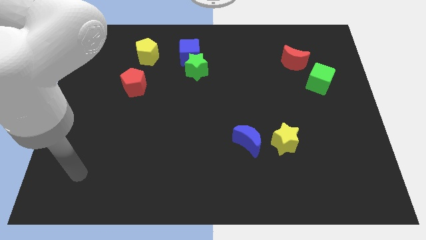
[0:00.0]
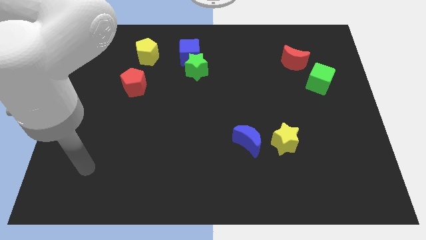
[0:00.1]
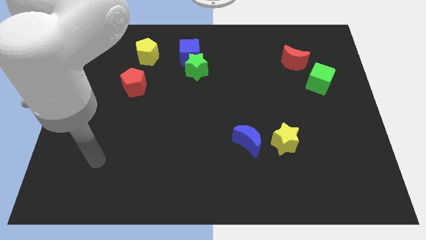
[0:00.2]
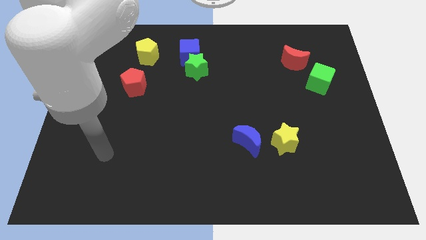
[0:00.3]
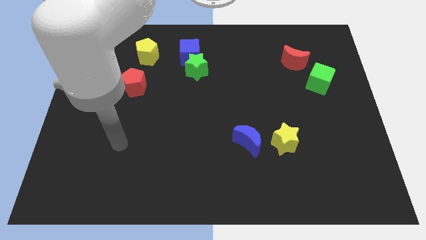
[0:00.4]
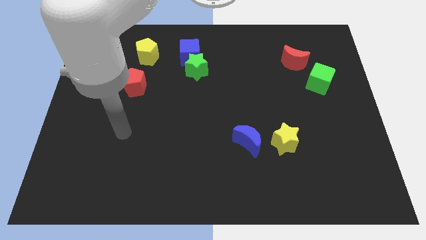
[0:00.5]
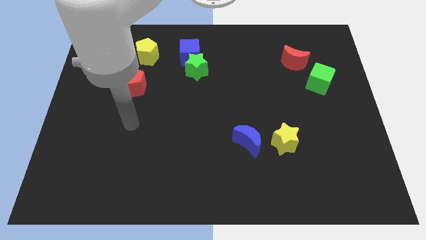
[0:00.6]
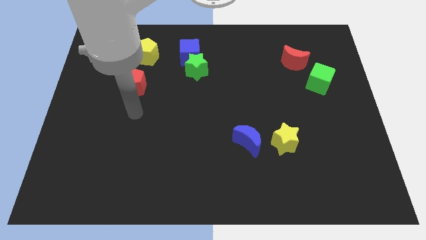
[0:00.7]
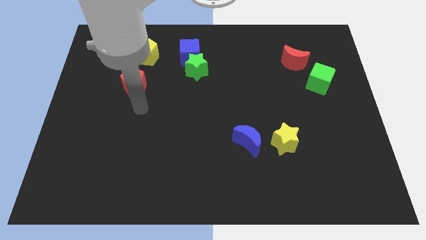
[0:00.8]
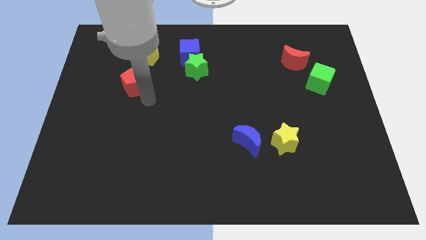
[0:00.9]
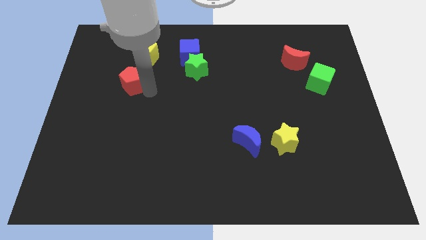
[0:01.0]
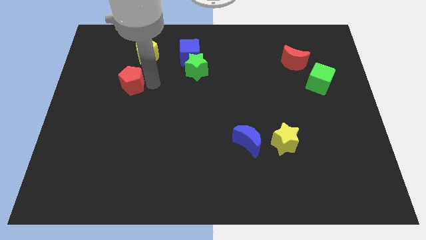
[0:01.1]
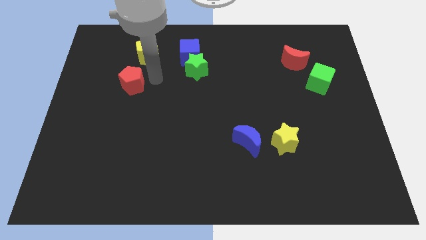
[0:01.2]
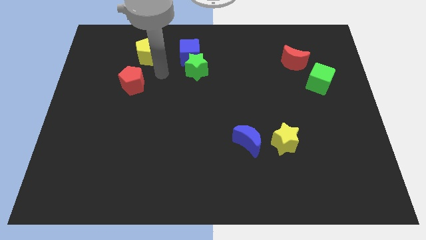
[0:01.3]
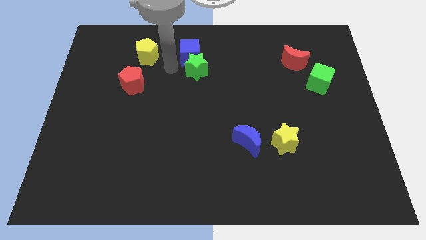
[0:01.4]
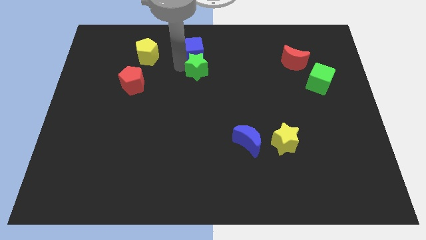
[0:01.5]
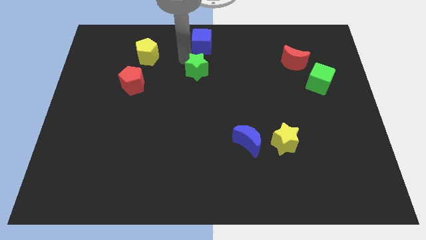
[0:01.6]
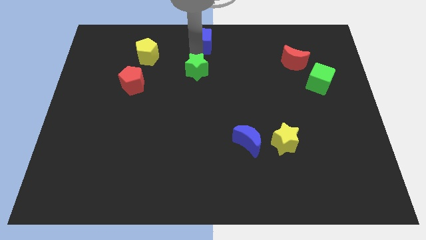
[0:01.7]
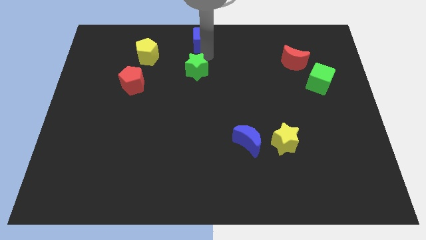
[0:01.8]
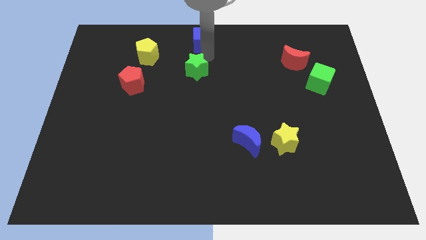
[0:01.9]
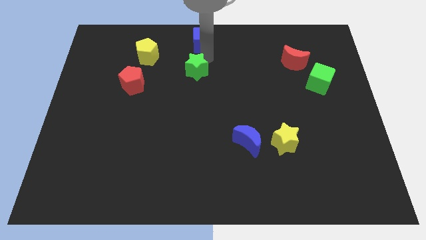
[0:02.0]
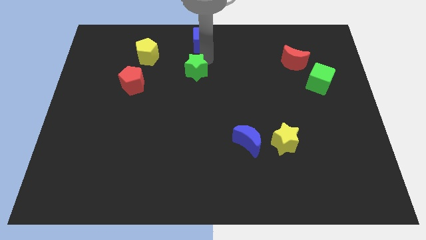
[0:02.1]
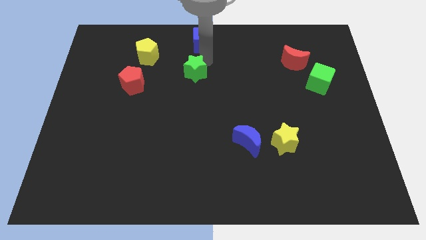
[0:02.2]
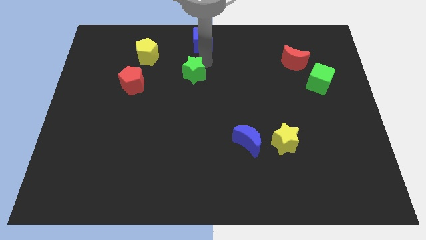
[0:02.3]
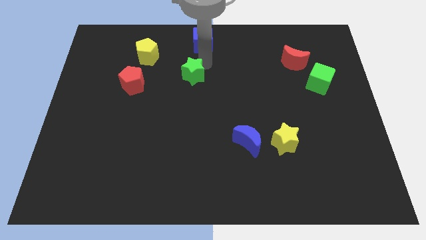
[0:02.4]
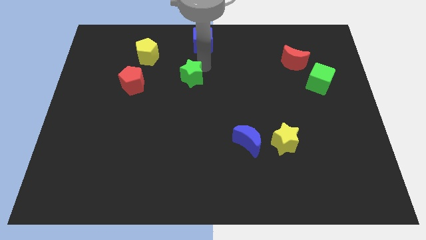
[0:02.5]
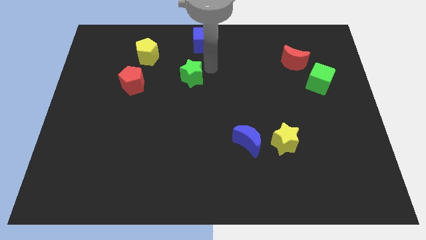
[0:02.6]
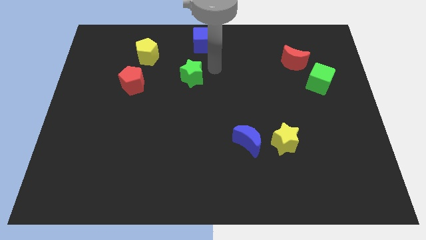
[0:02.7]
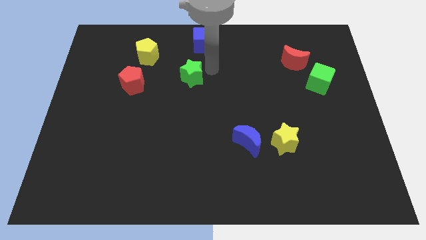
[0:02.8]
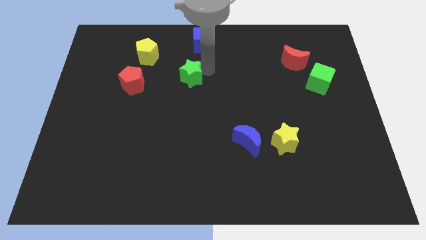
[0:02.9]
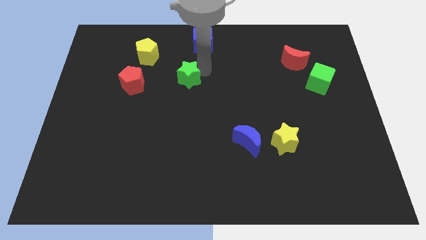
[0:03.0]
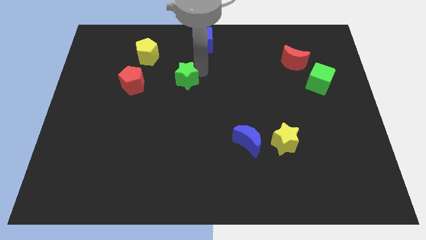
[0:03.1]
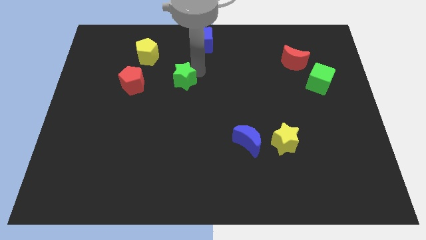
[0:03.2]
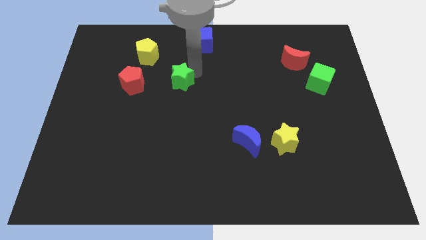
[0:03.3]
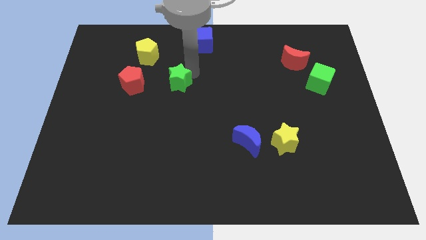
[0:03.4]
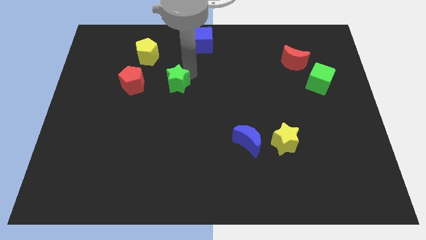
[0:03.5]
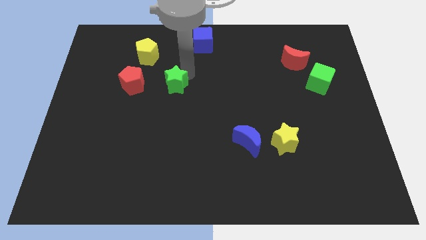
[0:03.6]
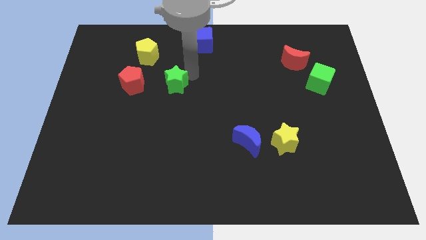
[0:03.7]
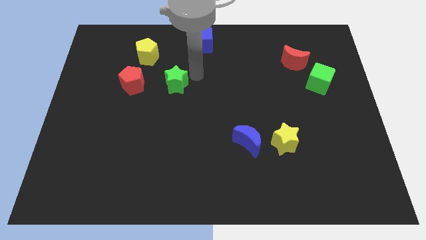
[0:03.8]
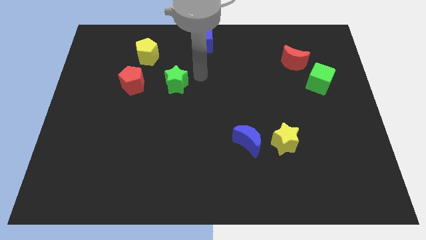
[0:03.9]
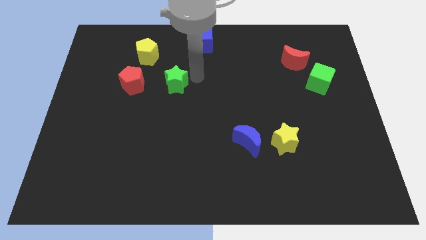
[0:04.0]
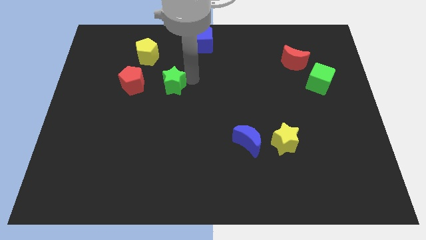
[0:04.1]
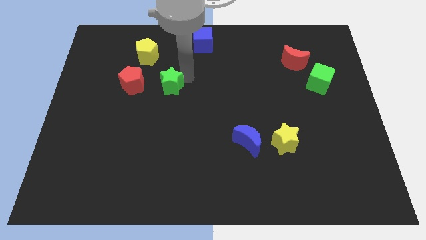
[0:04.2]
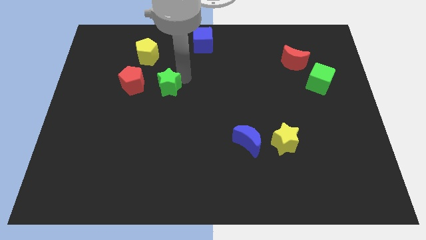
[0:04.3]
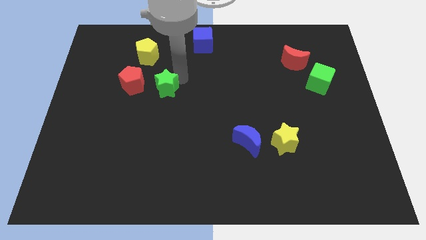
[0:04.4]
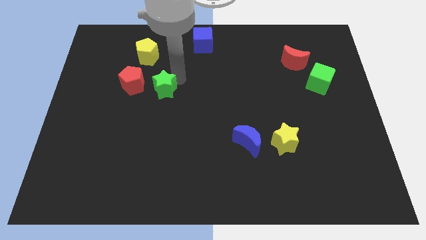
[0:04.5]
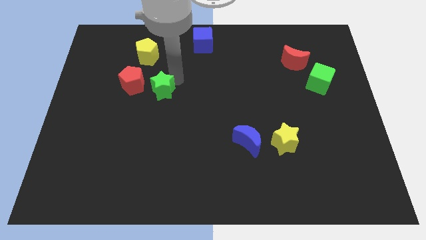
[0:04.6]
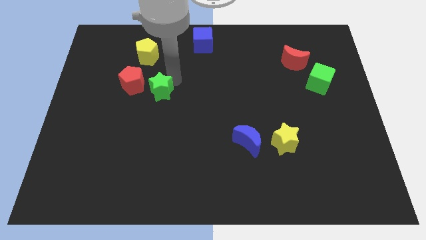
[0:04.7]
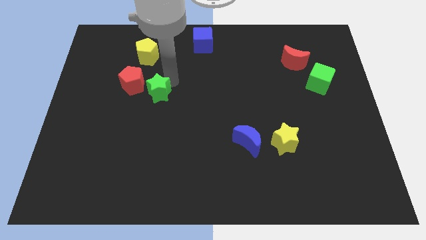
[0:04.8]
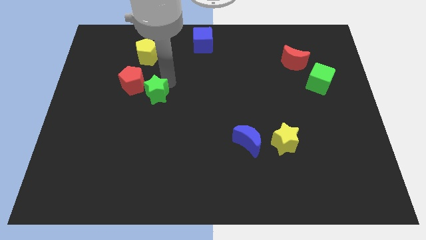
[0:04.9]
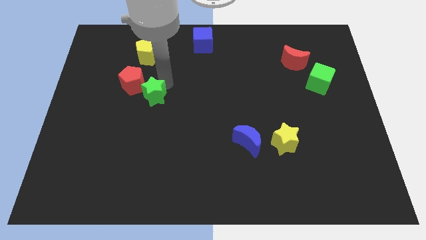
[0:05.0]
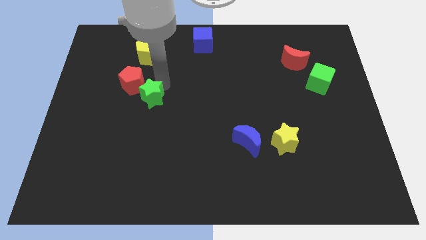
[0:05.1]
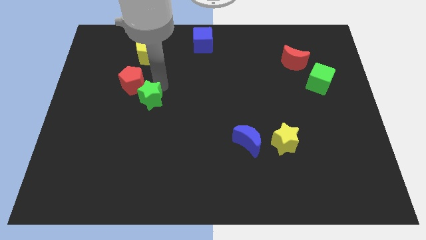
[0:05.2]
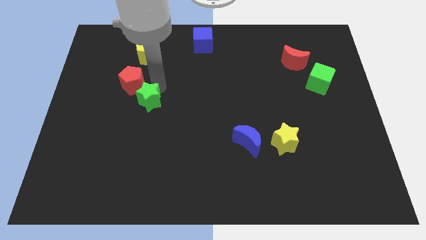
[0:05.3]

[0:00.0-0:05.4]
push the green star to the bottom of the red pentagon

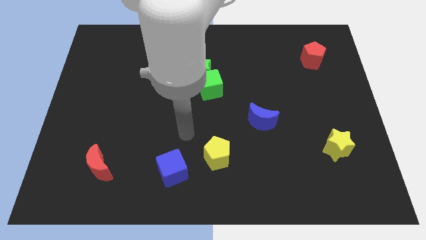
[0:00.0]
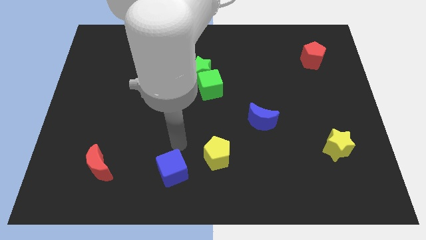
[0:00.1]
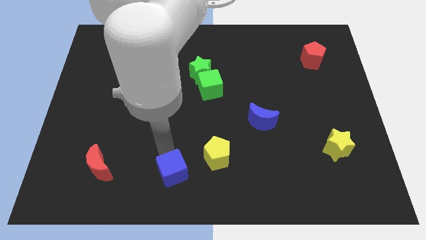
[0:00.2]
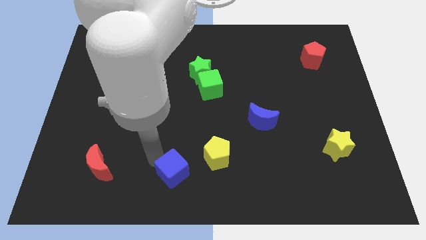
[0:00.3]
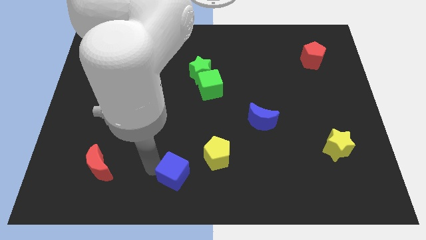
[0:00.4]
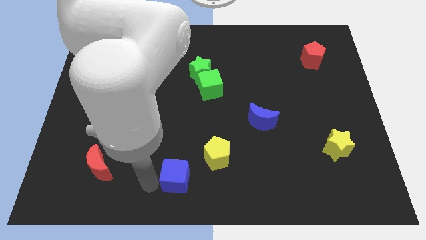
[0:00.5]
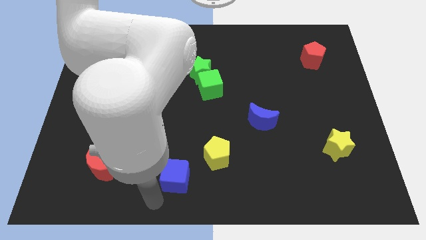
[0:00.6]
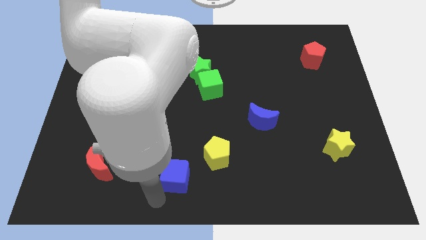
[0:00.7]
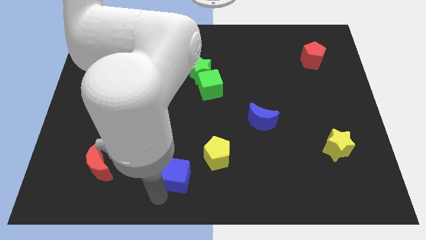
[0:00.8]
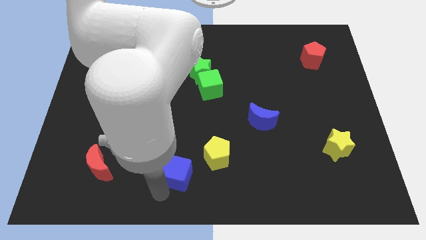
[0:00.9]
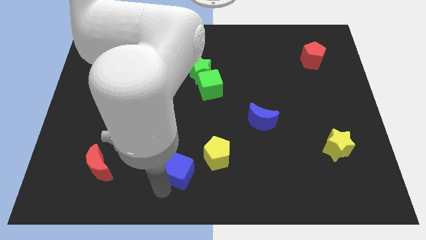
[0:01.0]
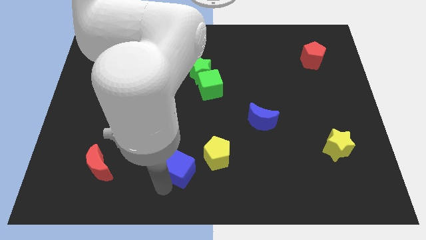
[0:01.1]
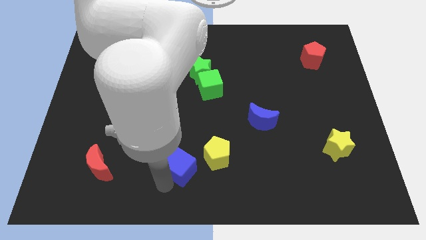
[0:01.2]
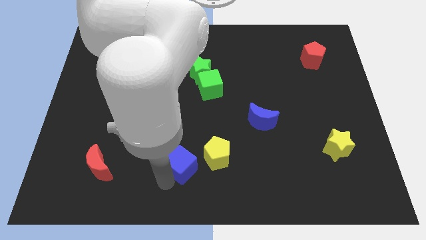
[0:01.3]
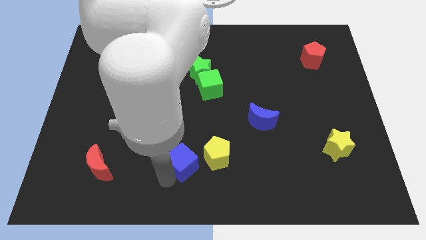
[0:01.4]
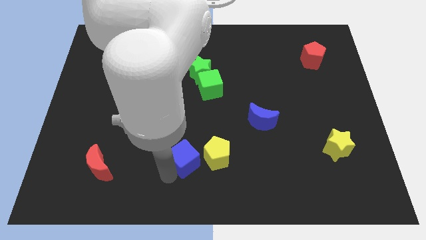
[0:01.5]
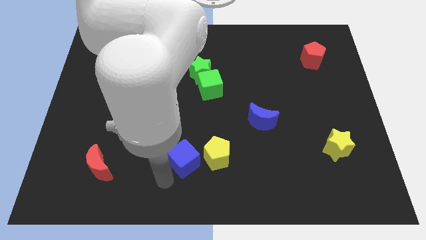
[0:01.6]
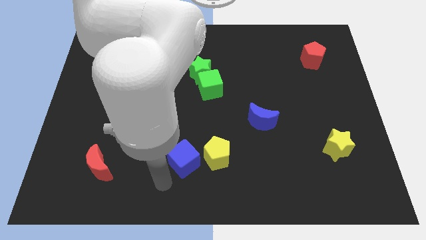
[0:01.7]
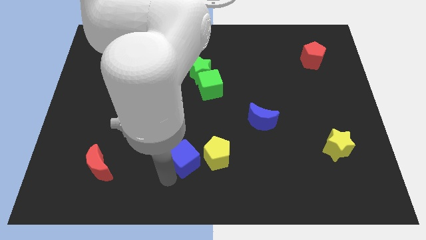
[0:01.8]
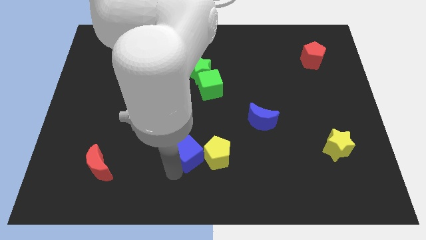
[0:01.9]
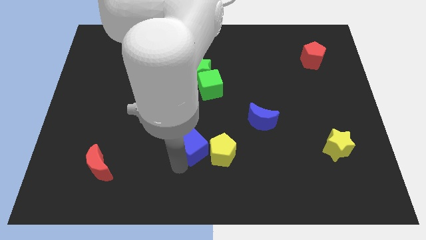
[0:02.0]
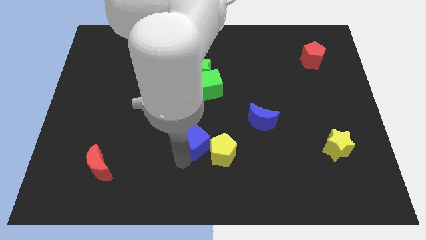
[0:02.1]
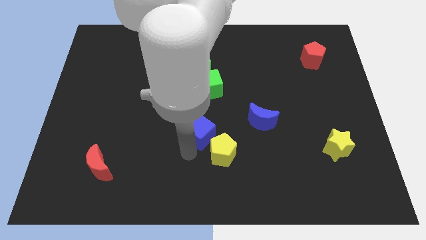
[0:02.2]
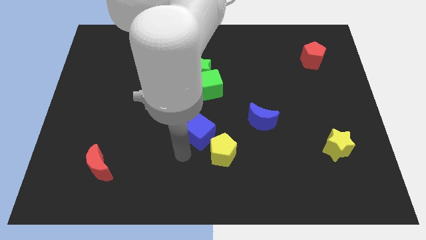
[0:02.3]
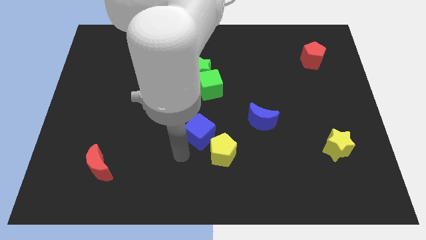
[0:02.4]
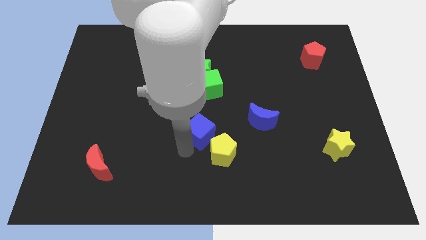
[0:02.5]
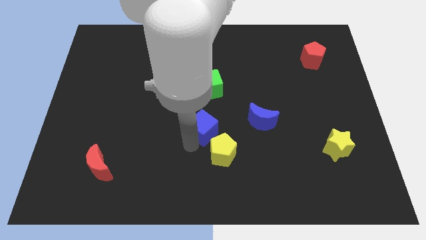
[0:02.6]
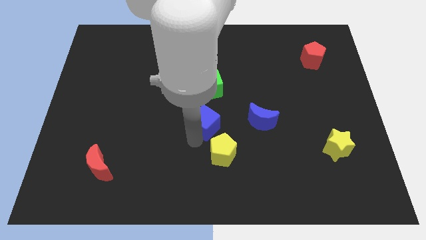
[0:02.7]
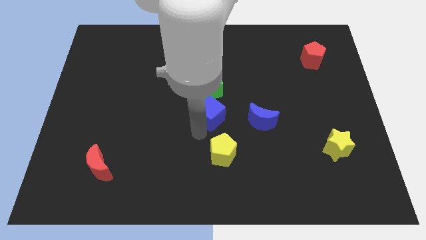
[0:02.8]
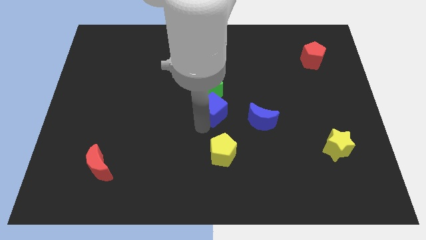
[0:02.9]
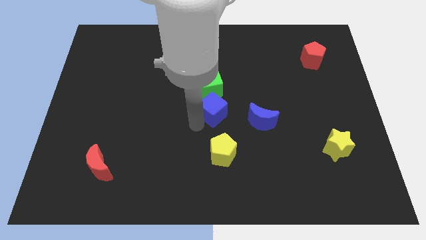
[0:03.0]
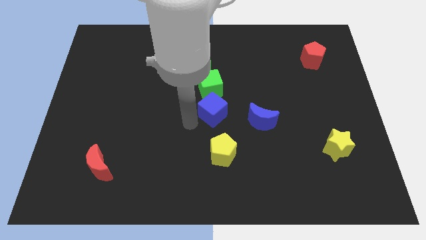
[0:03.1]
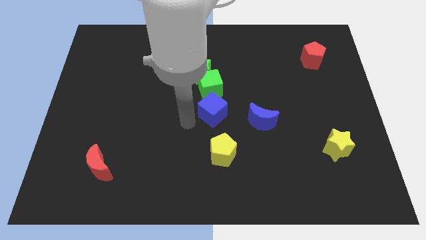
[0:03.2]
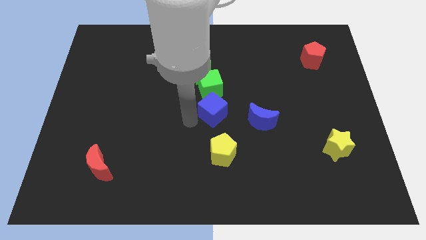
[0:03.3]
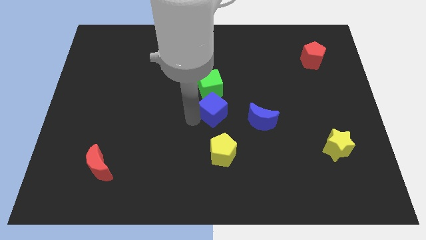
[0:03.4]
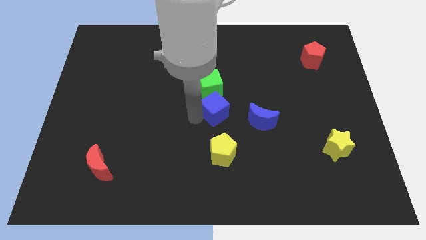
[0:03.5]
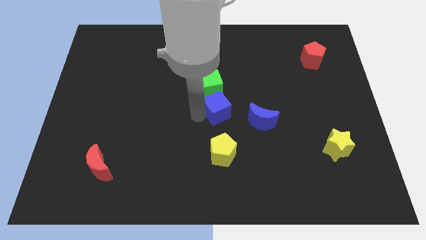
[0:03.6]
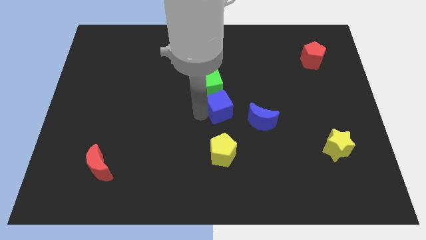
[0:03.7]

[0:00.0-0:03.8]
slide the blue cube to the top left of the blue moon
